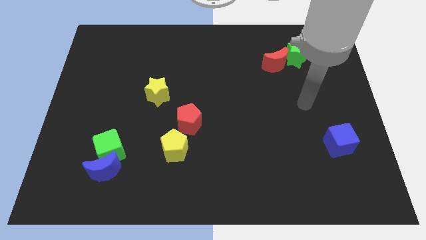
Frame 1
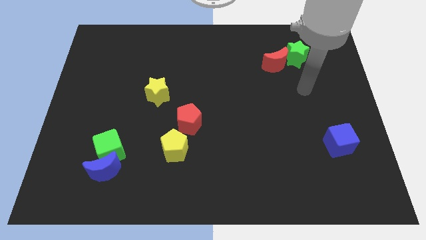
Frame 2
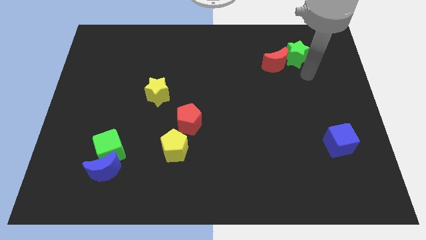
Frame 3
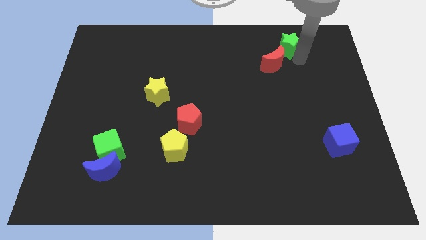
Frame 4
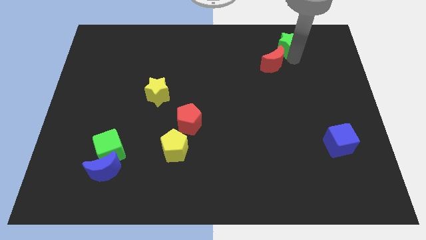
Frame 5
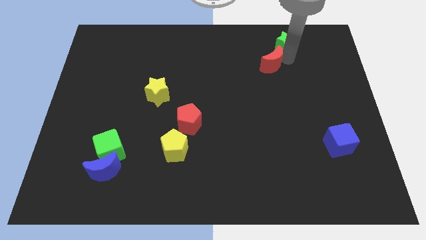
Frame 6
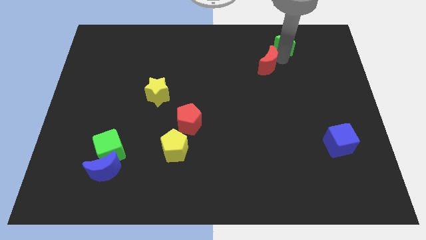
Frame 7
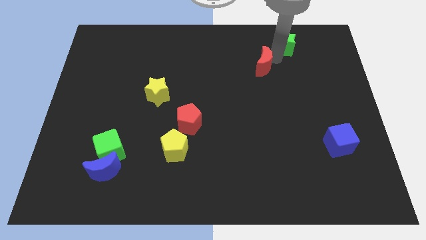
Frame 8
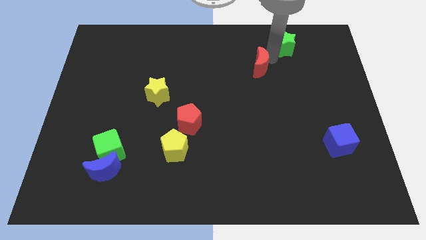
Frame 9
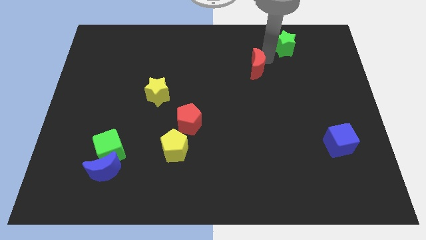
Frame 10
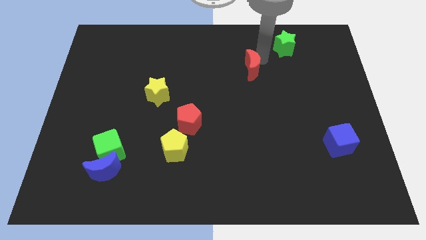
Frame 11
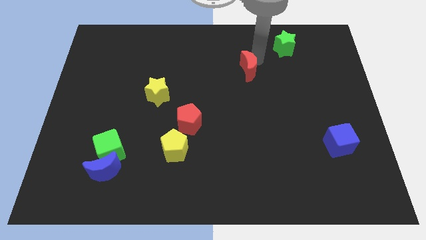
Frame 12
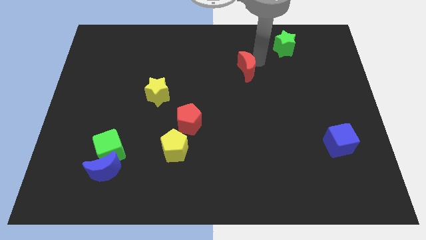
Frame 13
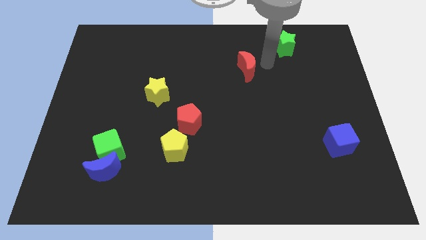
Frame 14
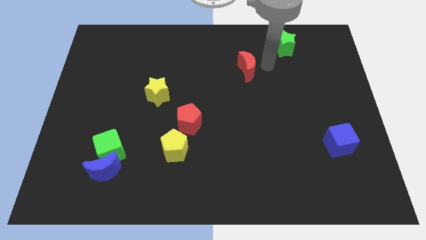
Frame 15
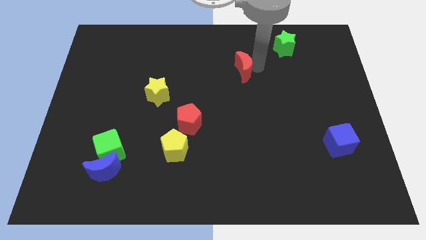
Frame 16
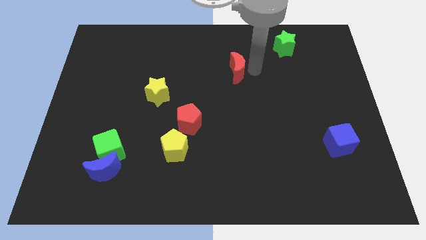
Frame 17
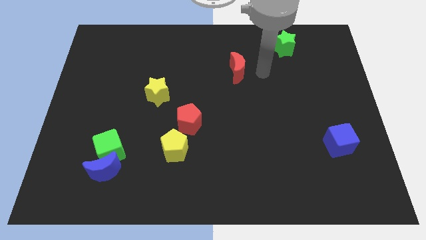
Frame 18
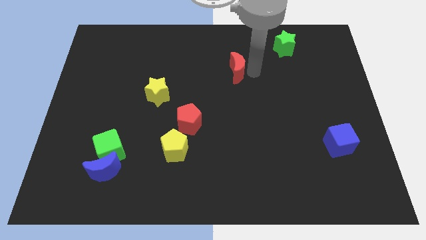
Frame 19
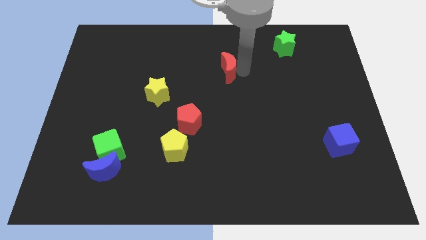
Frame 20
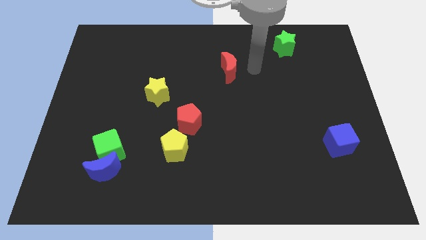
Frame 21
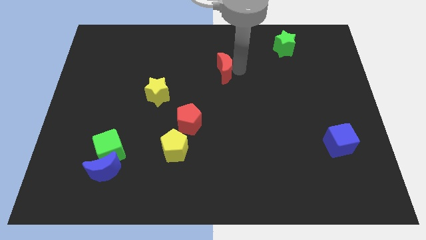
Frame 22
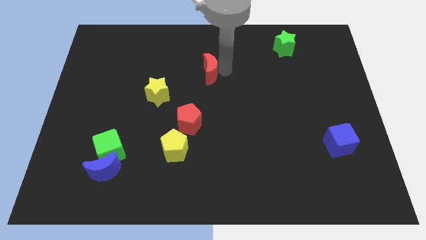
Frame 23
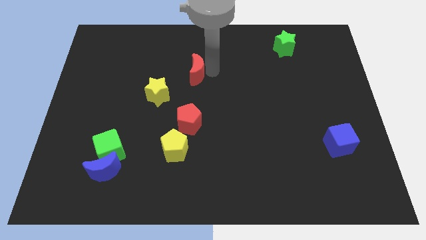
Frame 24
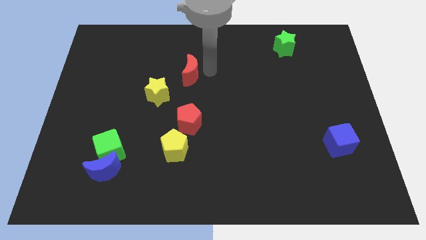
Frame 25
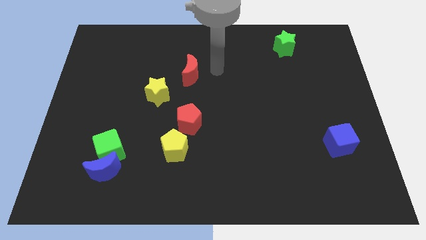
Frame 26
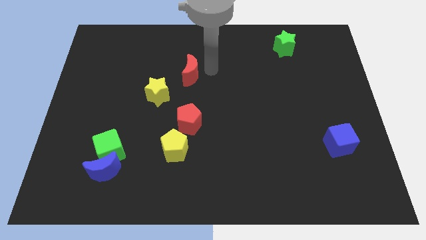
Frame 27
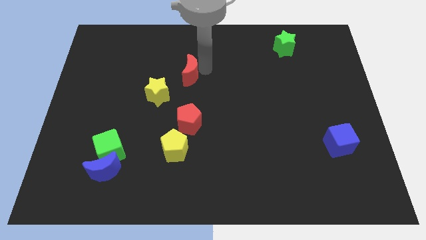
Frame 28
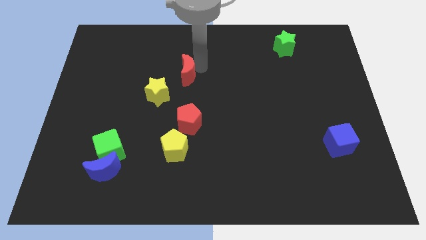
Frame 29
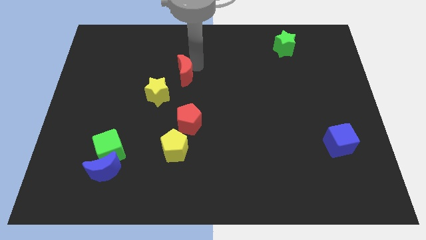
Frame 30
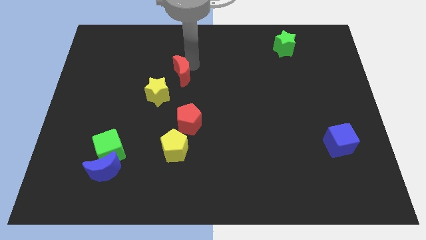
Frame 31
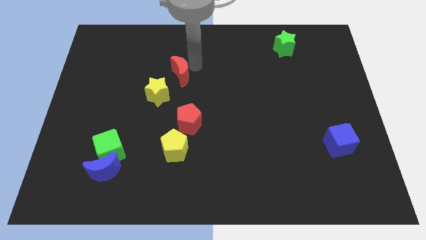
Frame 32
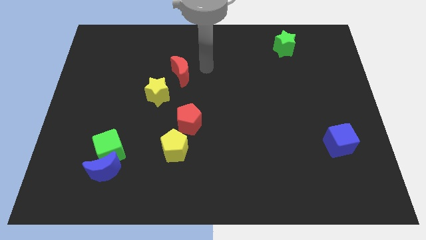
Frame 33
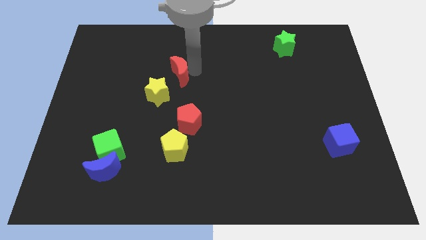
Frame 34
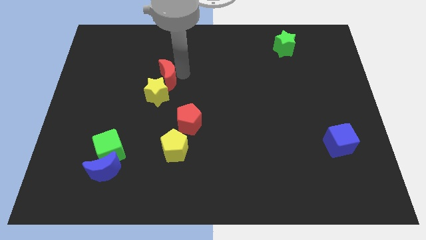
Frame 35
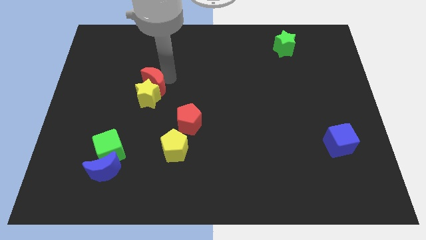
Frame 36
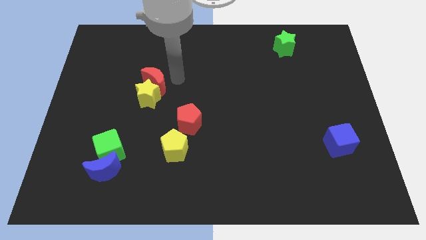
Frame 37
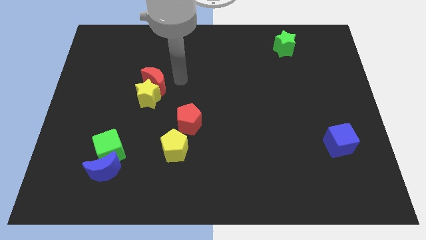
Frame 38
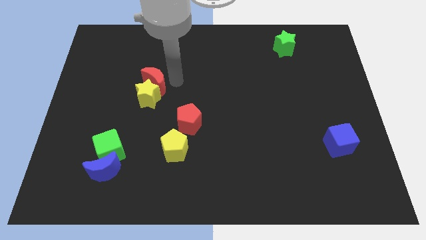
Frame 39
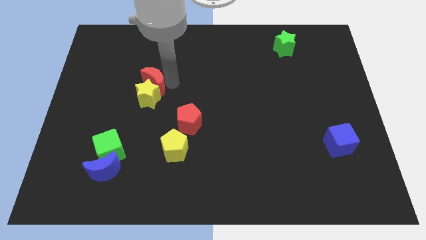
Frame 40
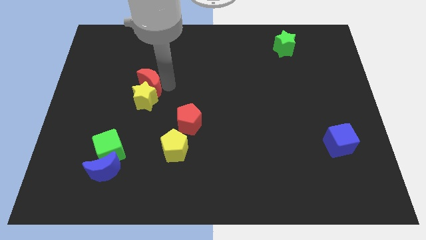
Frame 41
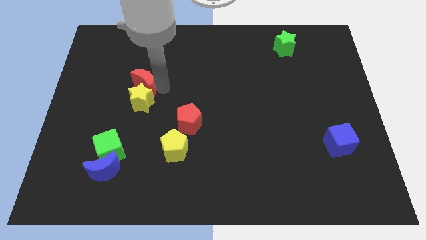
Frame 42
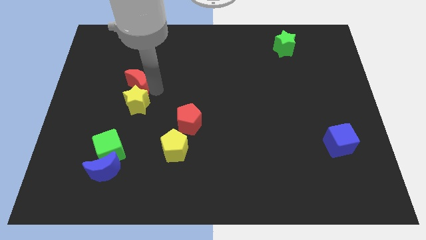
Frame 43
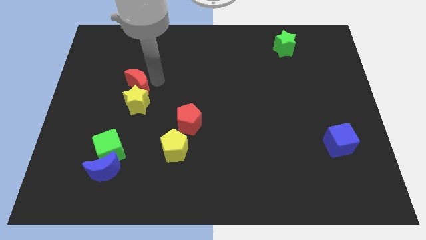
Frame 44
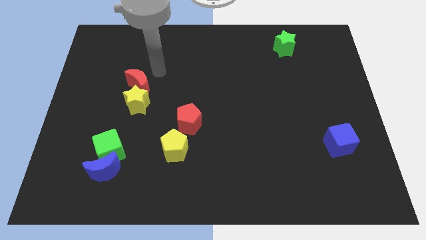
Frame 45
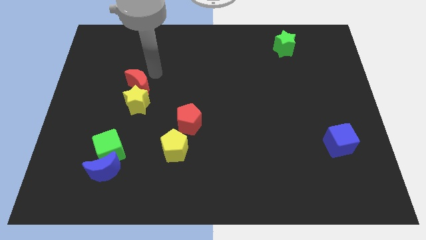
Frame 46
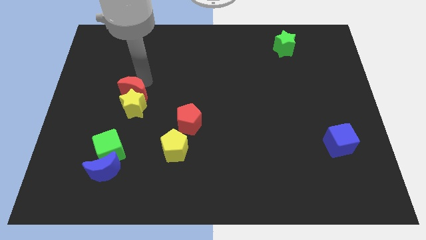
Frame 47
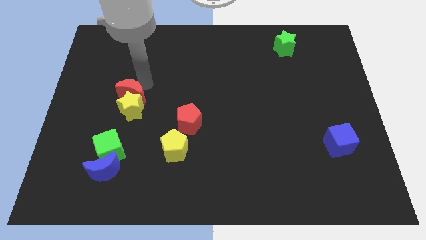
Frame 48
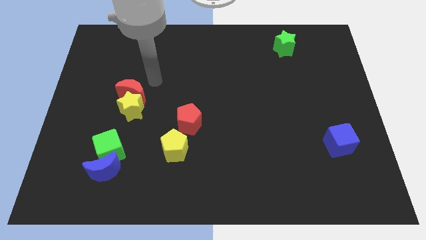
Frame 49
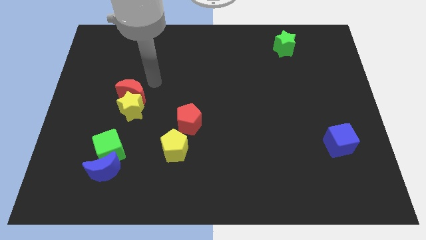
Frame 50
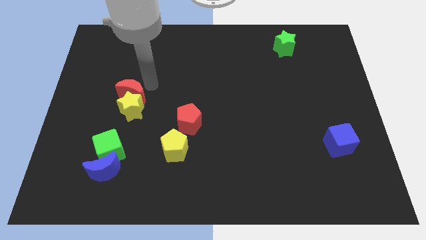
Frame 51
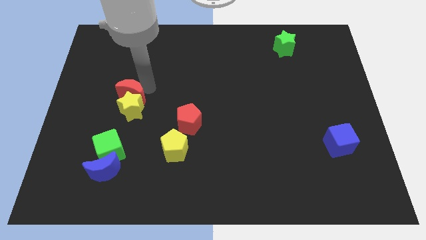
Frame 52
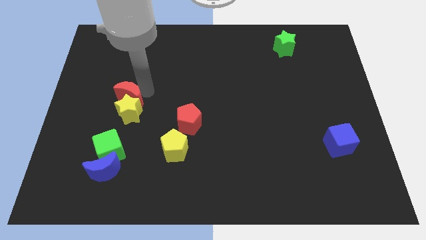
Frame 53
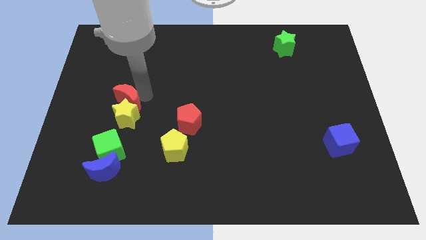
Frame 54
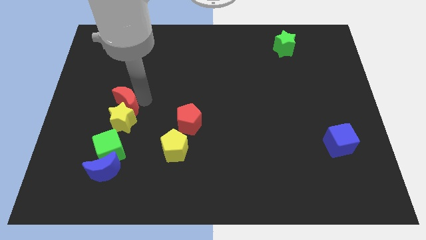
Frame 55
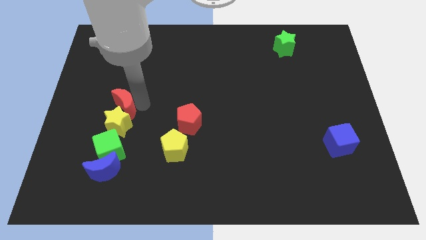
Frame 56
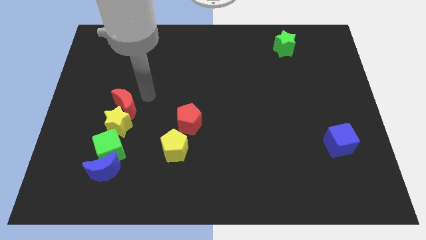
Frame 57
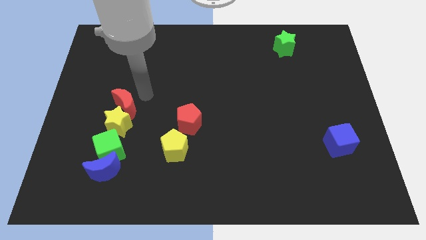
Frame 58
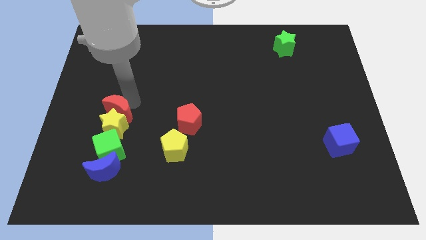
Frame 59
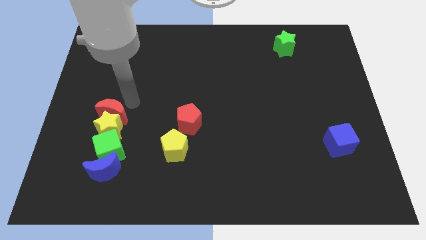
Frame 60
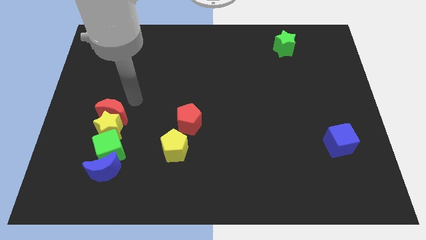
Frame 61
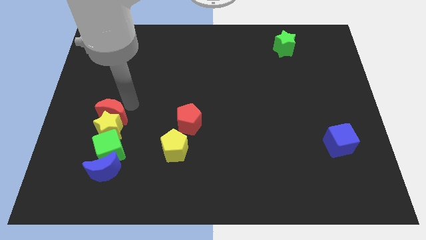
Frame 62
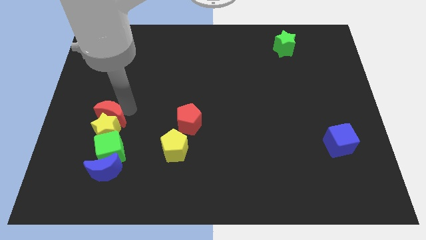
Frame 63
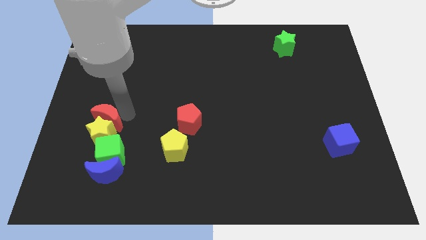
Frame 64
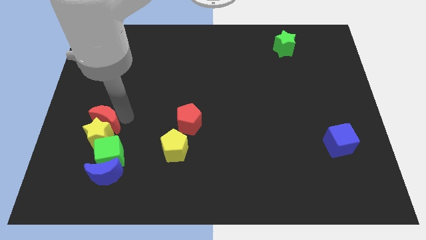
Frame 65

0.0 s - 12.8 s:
put the red moon to the top left side of the green cube
